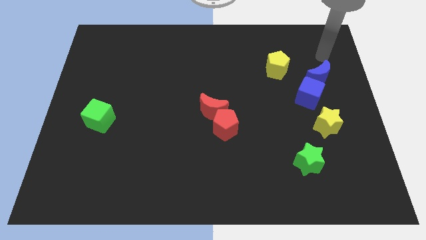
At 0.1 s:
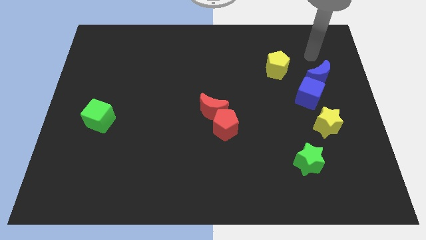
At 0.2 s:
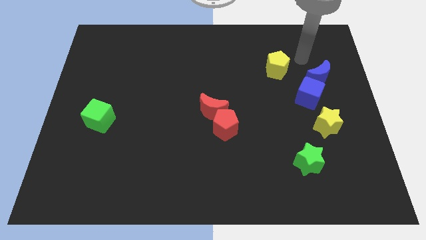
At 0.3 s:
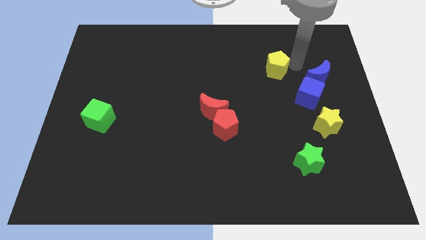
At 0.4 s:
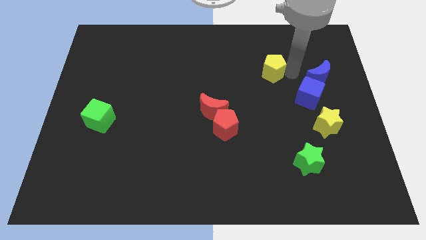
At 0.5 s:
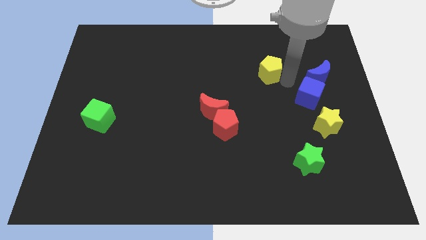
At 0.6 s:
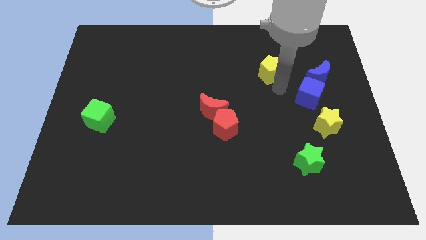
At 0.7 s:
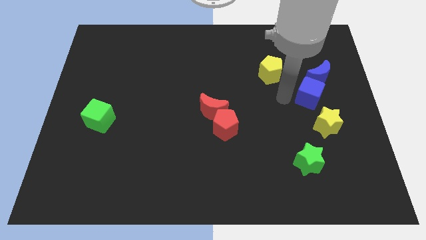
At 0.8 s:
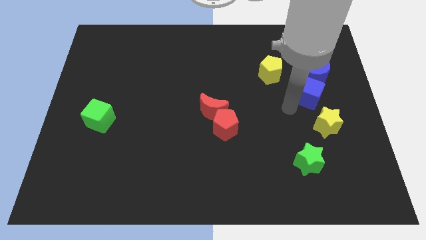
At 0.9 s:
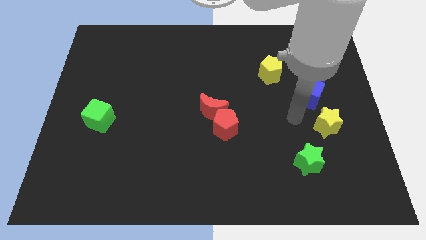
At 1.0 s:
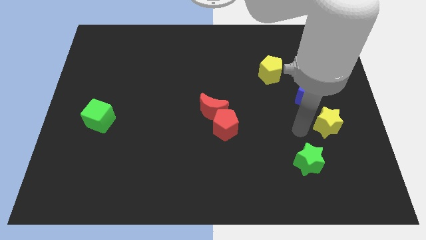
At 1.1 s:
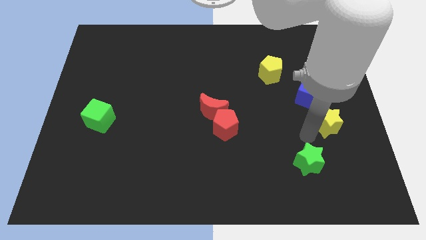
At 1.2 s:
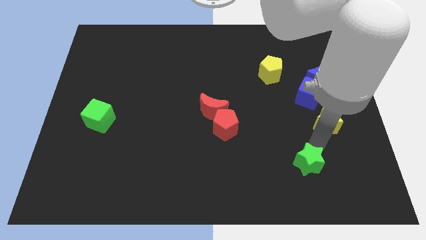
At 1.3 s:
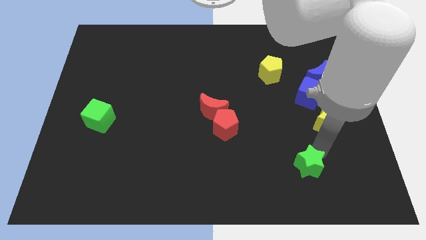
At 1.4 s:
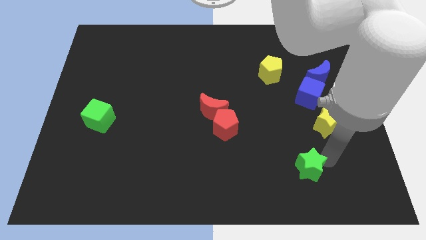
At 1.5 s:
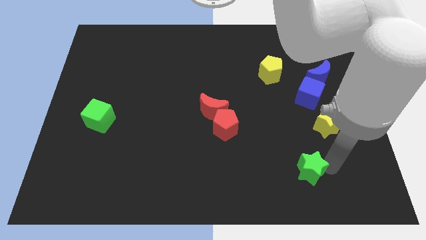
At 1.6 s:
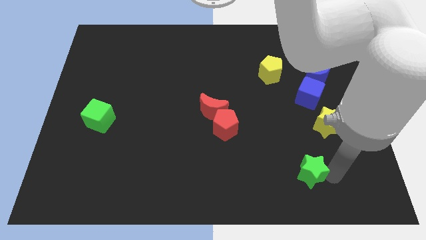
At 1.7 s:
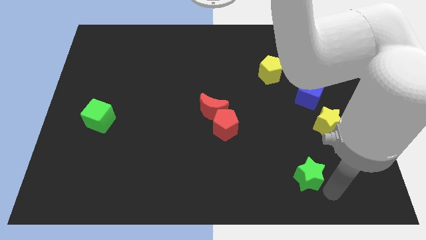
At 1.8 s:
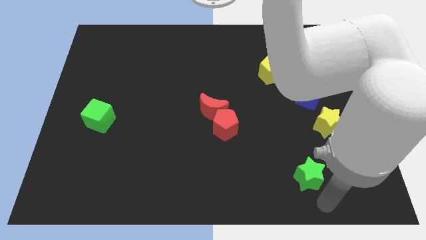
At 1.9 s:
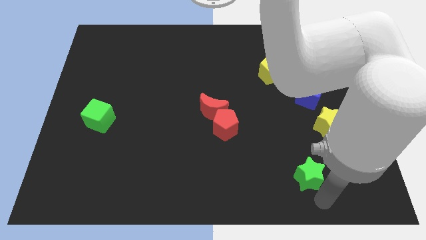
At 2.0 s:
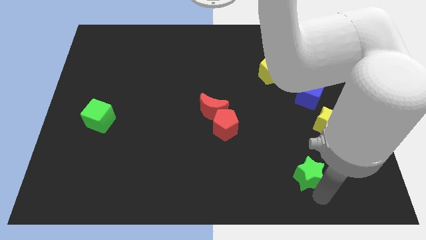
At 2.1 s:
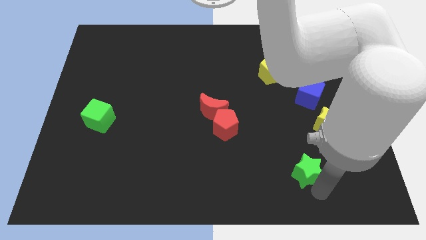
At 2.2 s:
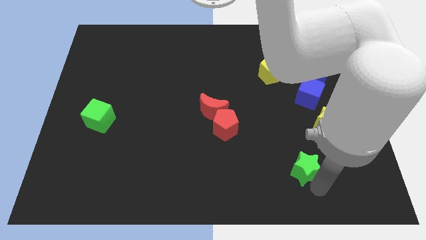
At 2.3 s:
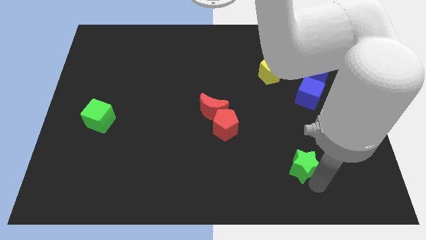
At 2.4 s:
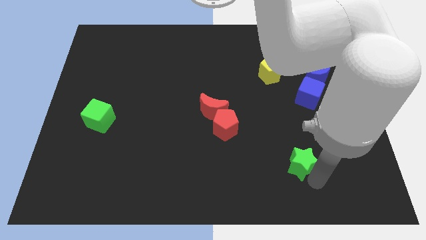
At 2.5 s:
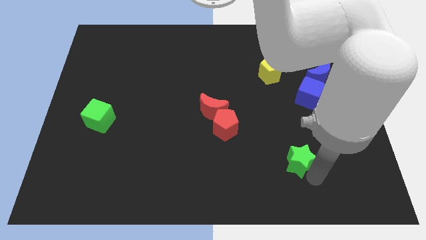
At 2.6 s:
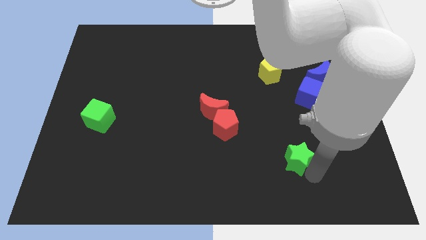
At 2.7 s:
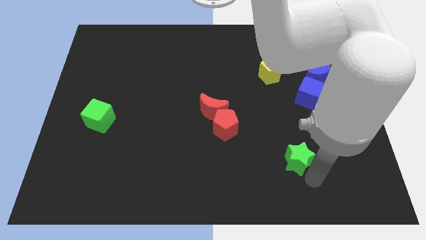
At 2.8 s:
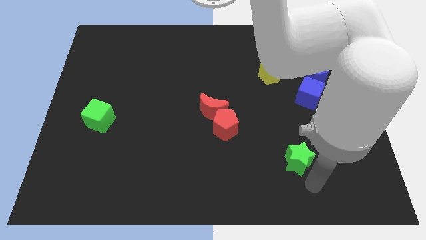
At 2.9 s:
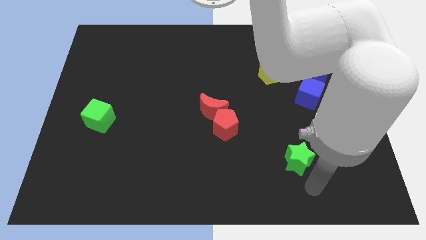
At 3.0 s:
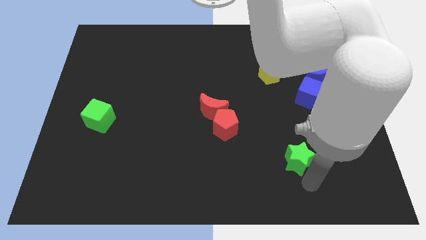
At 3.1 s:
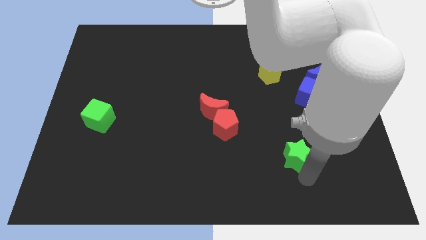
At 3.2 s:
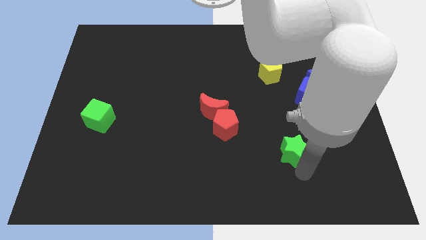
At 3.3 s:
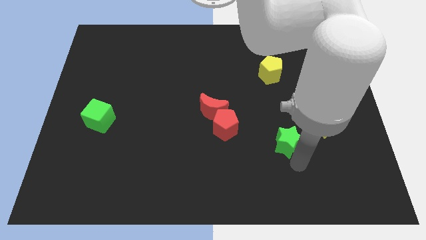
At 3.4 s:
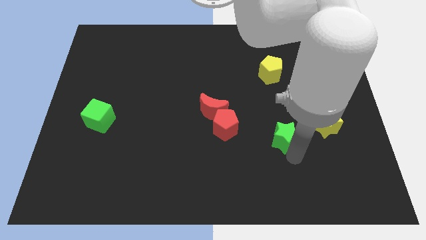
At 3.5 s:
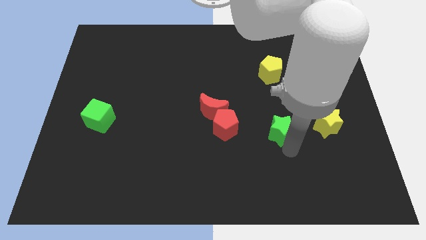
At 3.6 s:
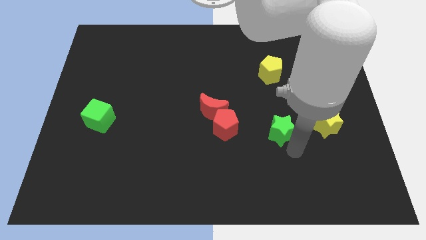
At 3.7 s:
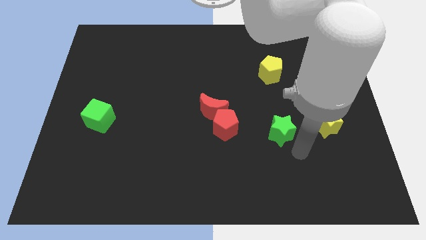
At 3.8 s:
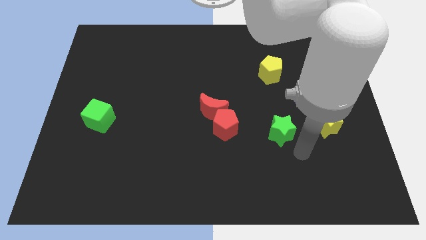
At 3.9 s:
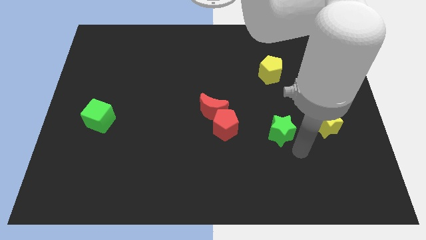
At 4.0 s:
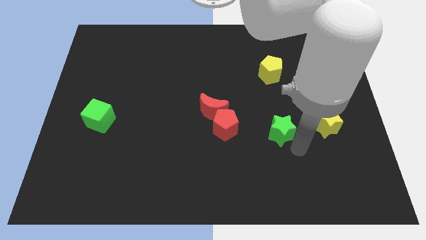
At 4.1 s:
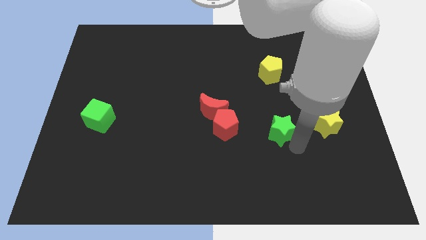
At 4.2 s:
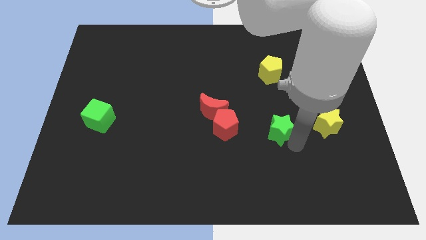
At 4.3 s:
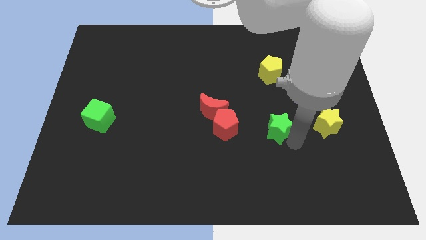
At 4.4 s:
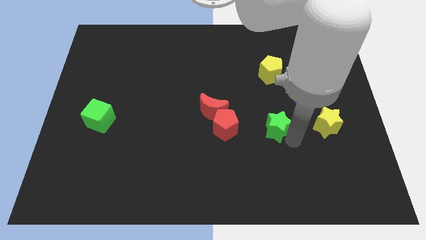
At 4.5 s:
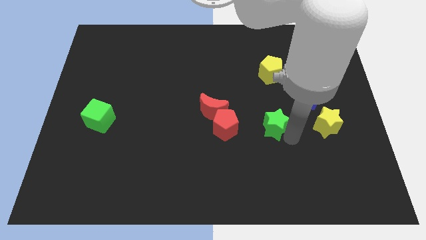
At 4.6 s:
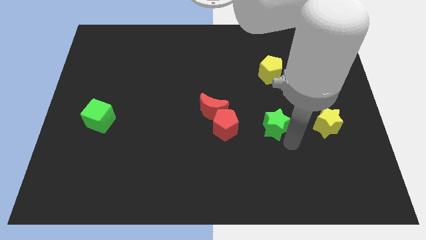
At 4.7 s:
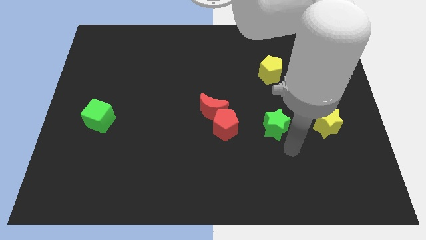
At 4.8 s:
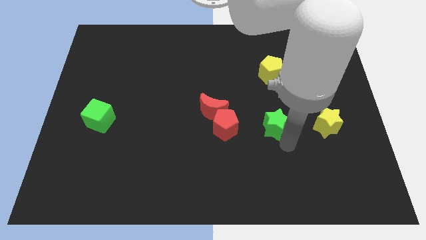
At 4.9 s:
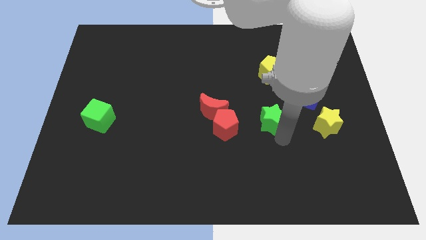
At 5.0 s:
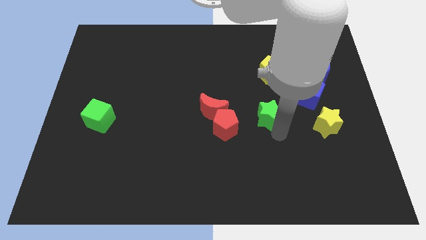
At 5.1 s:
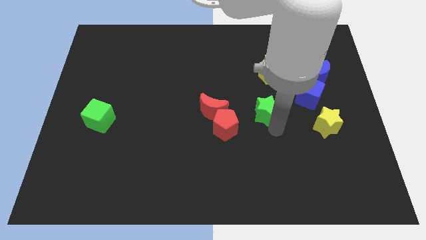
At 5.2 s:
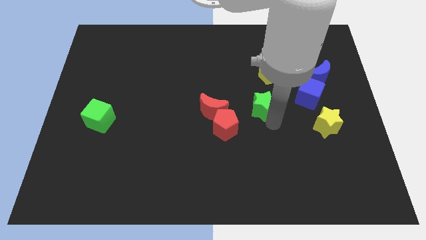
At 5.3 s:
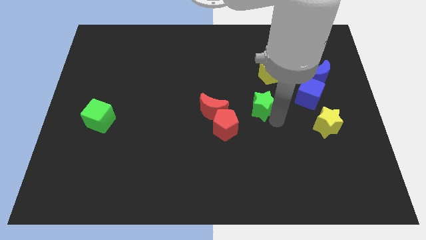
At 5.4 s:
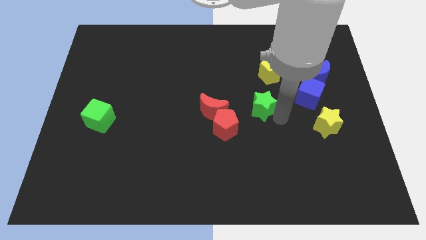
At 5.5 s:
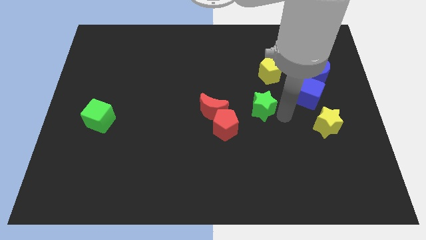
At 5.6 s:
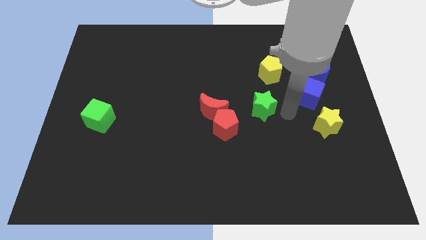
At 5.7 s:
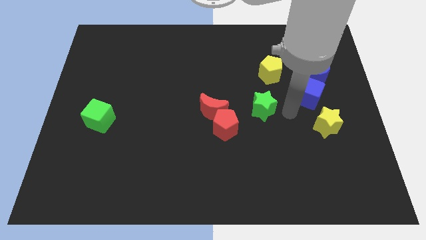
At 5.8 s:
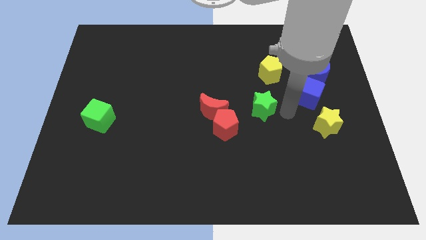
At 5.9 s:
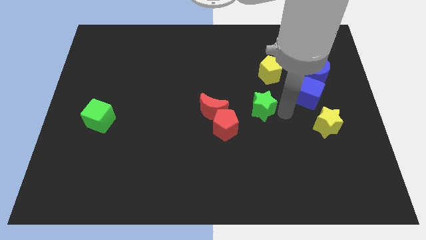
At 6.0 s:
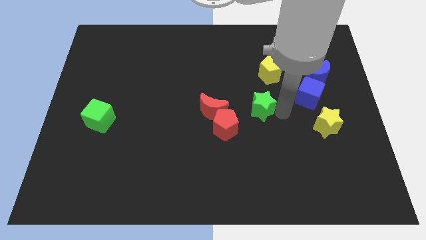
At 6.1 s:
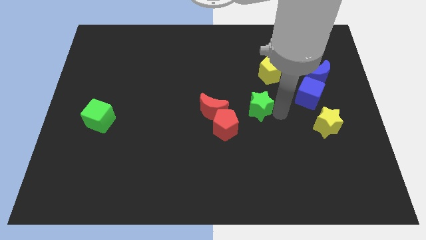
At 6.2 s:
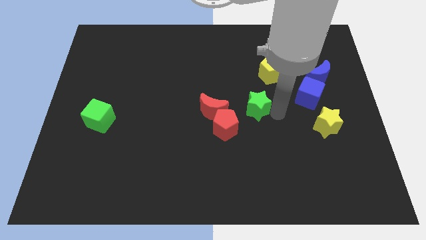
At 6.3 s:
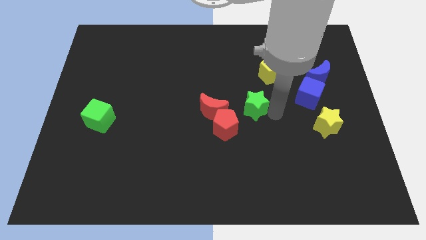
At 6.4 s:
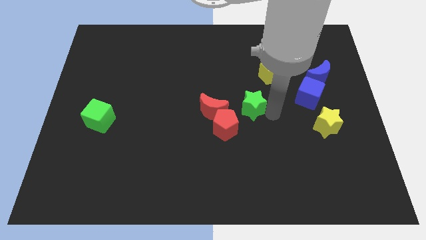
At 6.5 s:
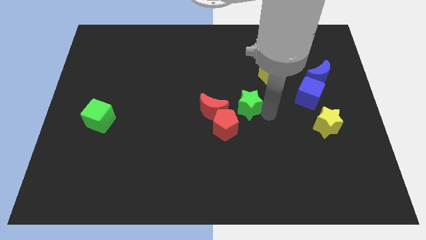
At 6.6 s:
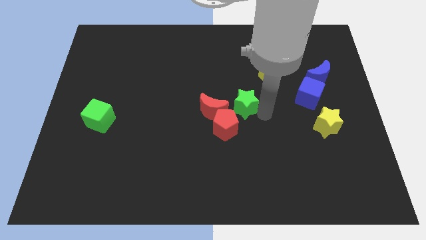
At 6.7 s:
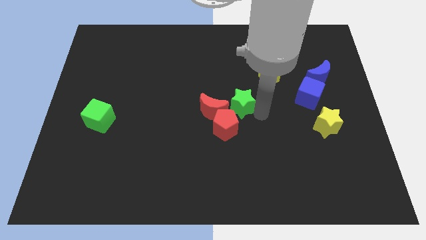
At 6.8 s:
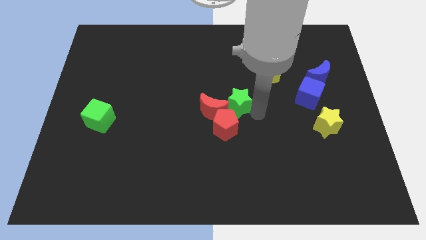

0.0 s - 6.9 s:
push the green star to the red moon

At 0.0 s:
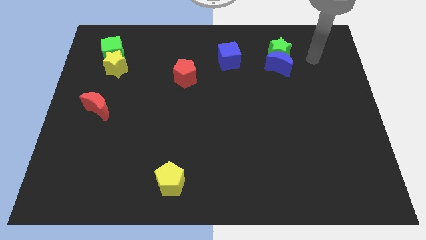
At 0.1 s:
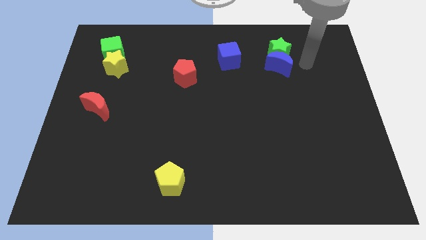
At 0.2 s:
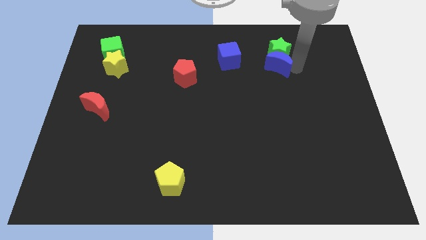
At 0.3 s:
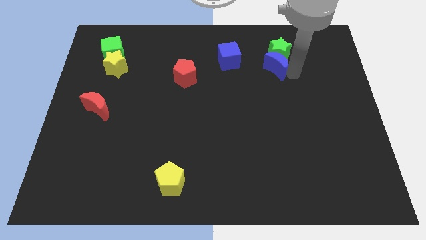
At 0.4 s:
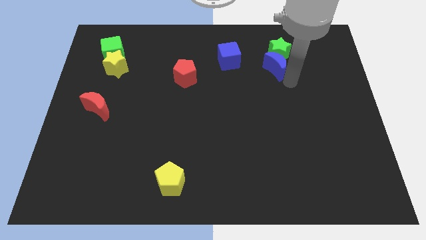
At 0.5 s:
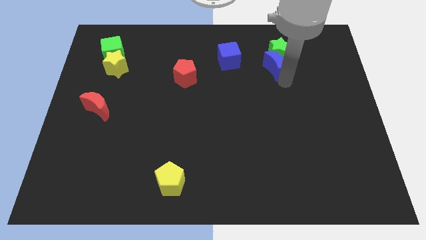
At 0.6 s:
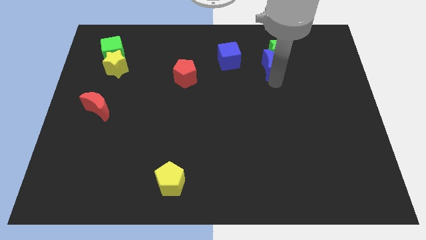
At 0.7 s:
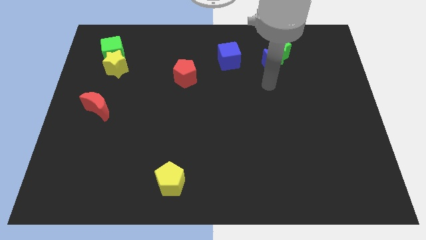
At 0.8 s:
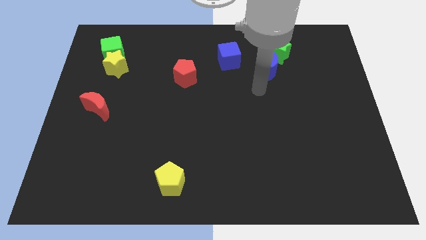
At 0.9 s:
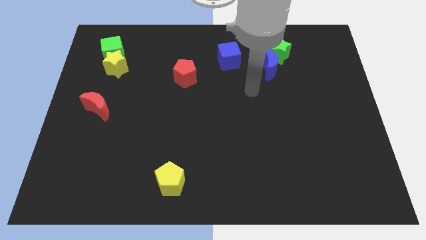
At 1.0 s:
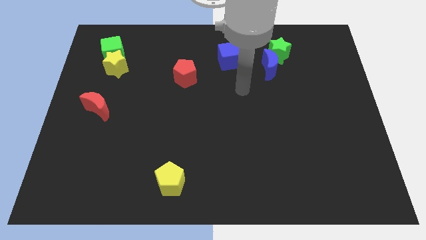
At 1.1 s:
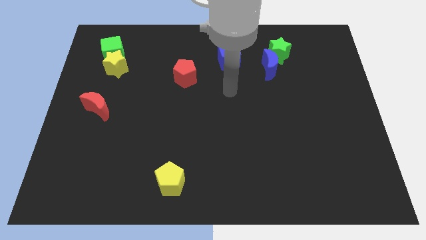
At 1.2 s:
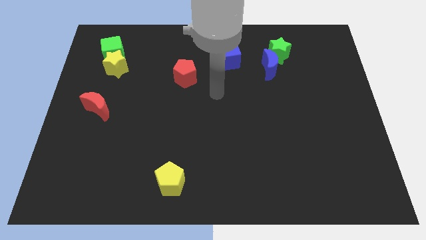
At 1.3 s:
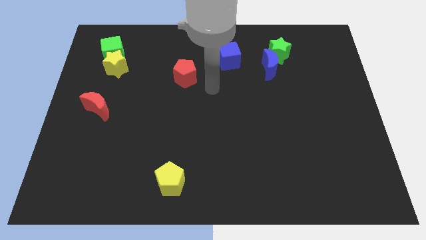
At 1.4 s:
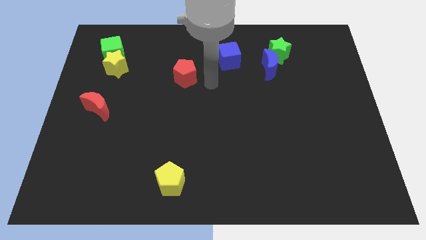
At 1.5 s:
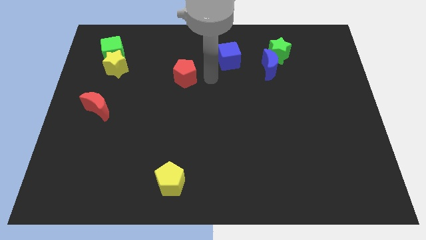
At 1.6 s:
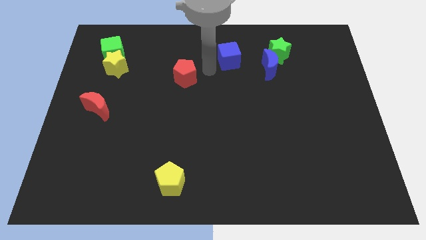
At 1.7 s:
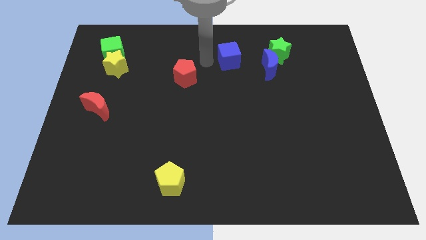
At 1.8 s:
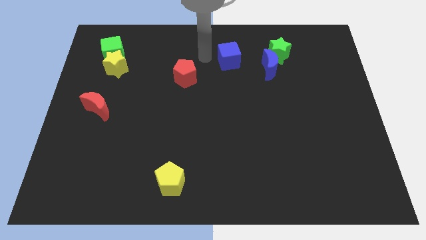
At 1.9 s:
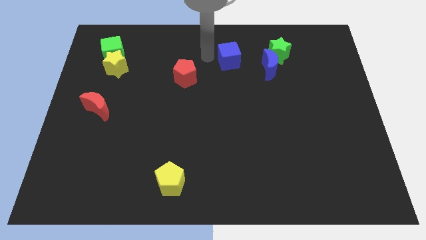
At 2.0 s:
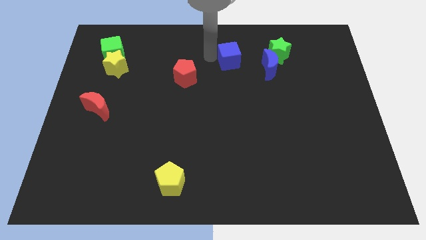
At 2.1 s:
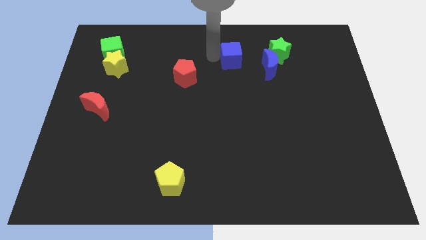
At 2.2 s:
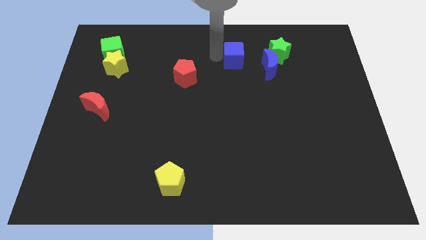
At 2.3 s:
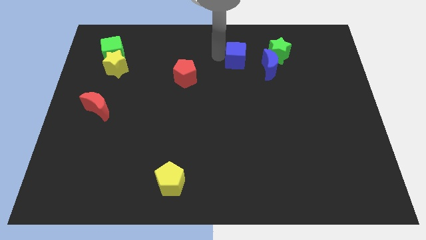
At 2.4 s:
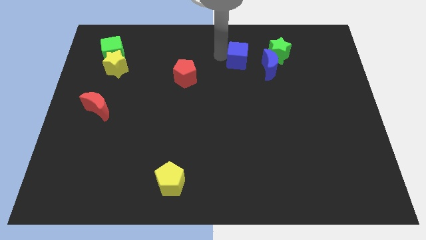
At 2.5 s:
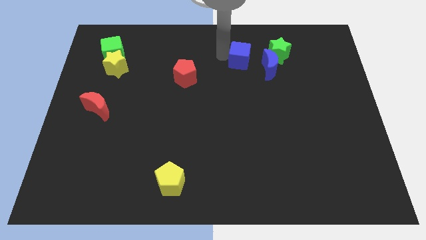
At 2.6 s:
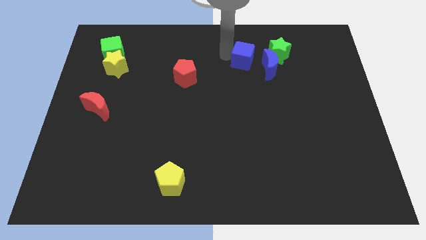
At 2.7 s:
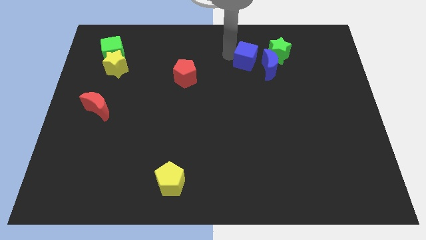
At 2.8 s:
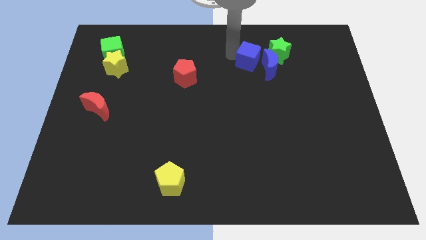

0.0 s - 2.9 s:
move the blue cube towards the blue moon
